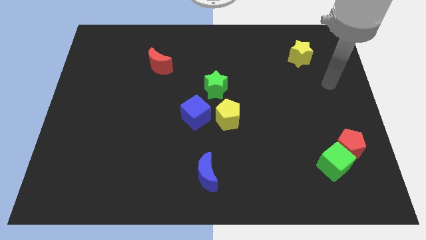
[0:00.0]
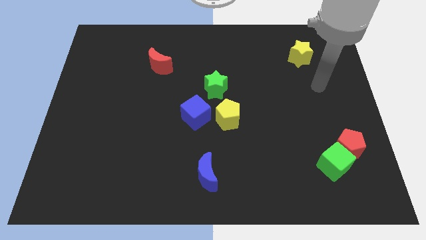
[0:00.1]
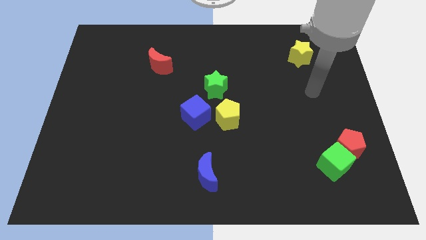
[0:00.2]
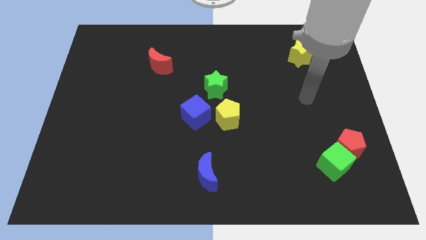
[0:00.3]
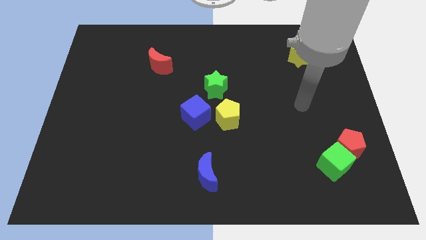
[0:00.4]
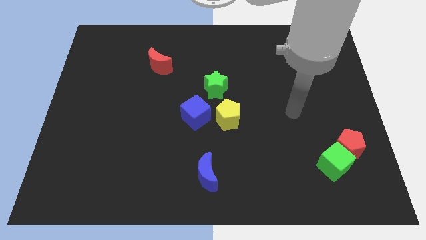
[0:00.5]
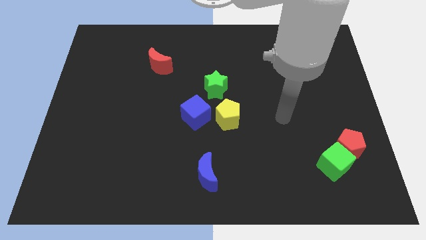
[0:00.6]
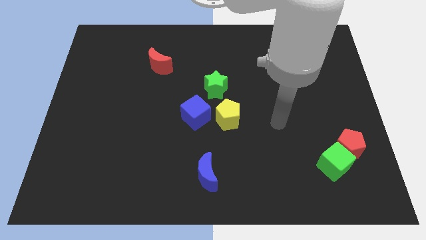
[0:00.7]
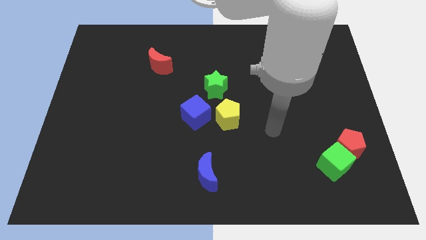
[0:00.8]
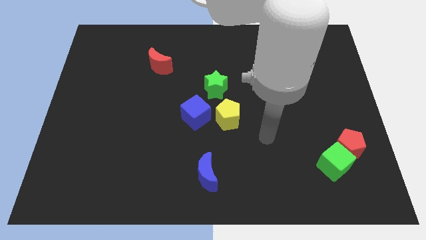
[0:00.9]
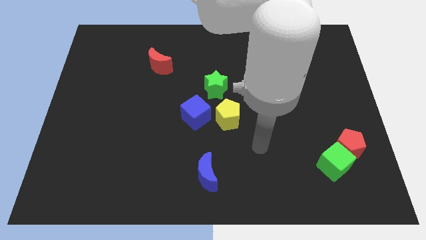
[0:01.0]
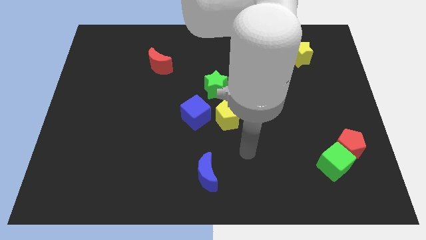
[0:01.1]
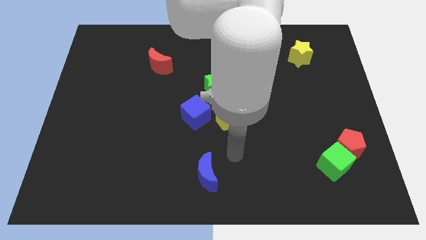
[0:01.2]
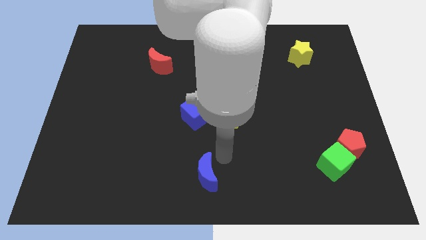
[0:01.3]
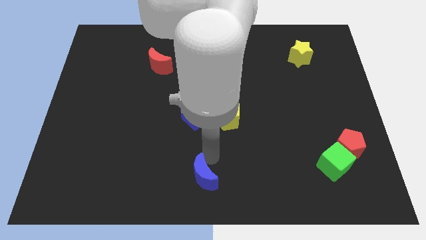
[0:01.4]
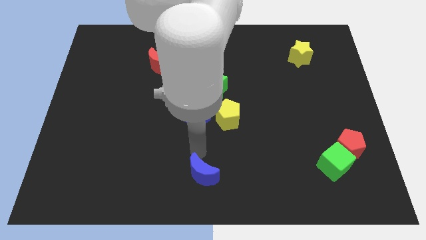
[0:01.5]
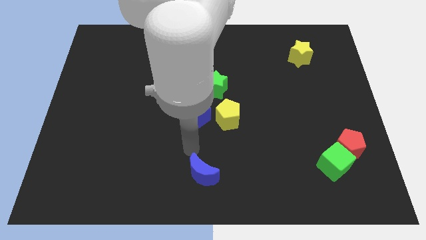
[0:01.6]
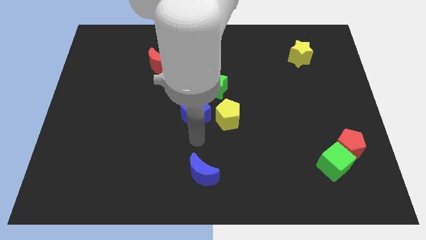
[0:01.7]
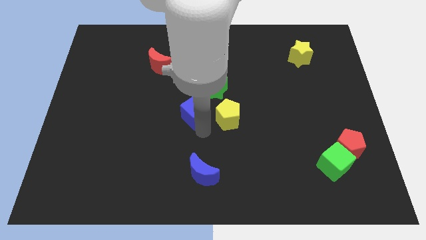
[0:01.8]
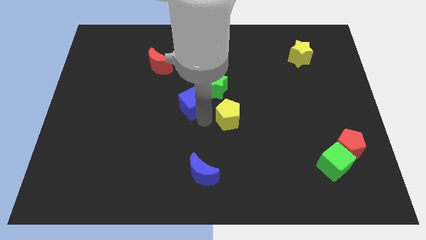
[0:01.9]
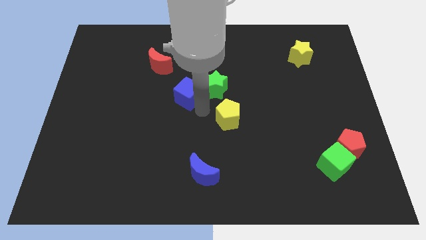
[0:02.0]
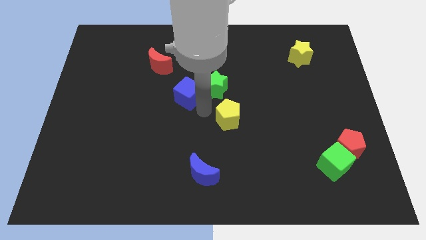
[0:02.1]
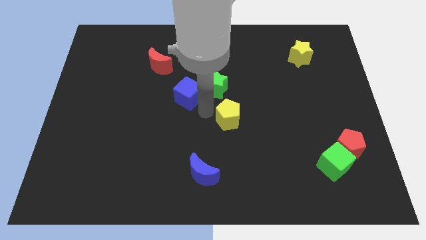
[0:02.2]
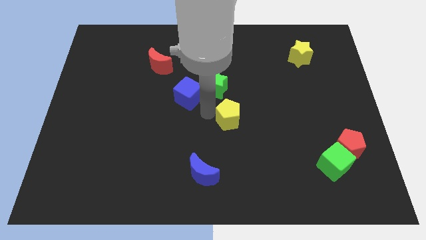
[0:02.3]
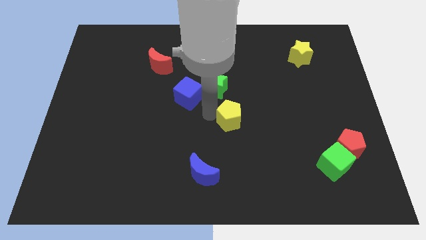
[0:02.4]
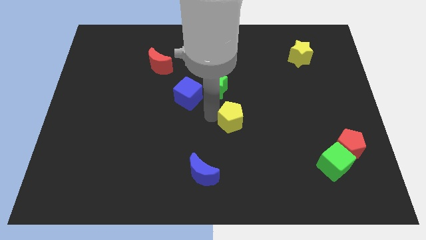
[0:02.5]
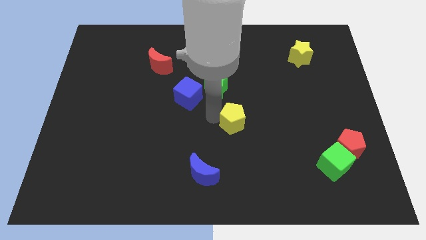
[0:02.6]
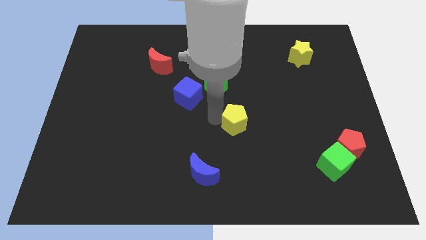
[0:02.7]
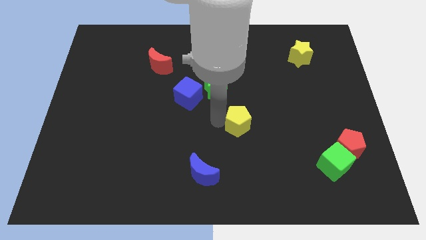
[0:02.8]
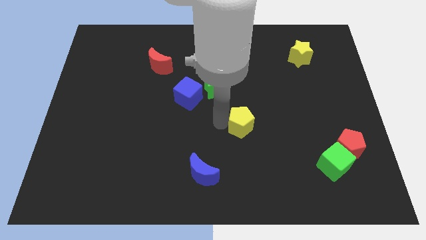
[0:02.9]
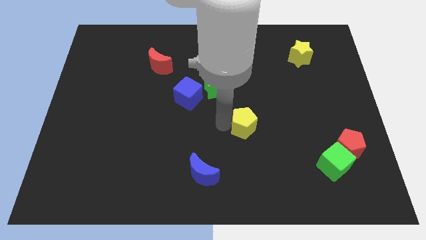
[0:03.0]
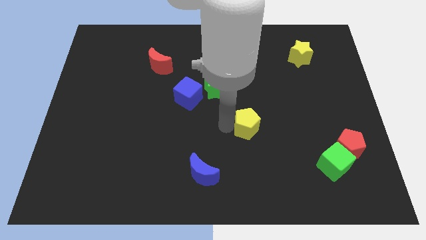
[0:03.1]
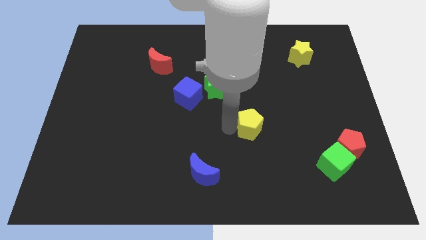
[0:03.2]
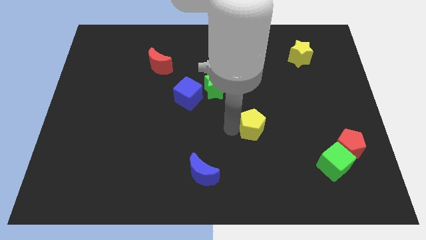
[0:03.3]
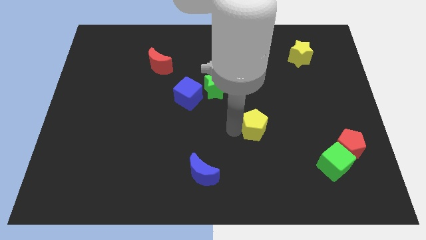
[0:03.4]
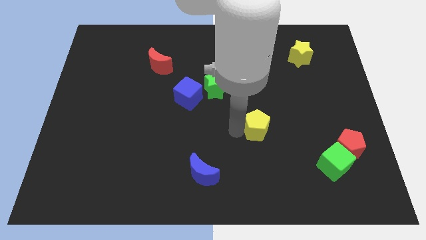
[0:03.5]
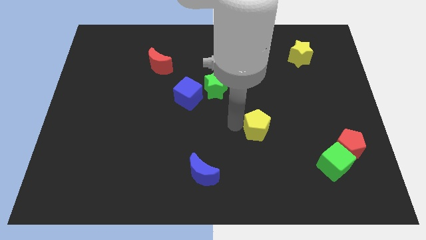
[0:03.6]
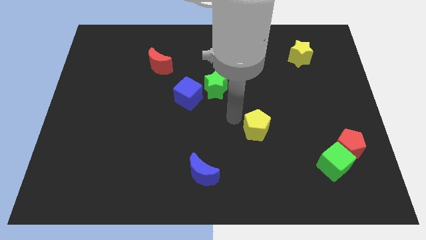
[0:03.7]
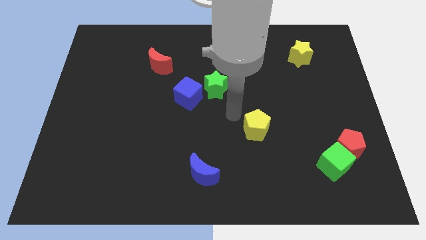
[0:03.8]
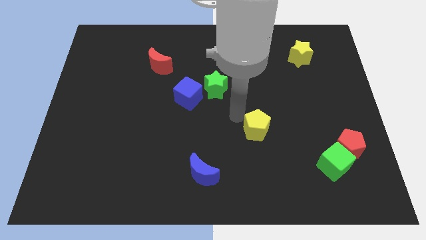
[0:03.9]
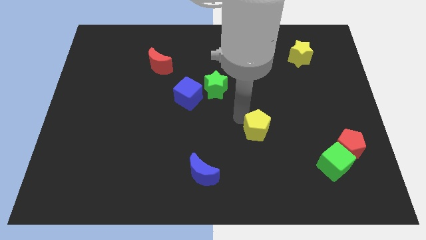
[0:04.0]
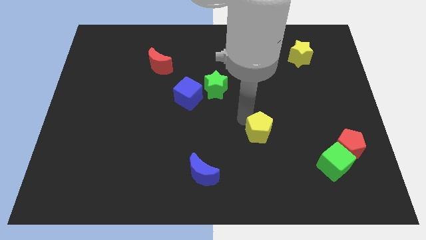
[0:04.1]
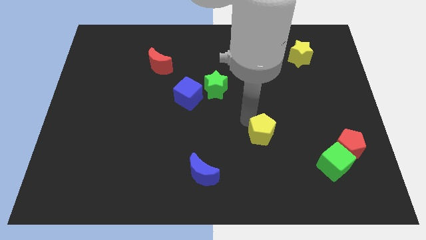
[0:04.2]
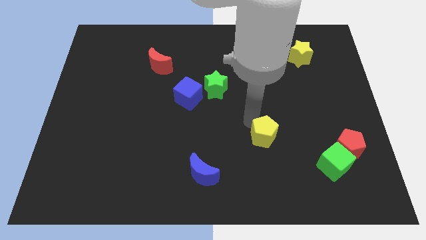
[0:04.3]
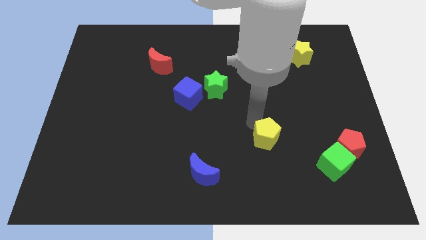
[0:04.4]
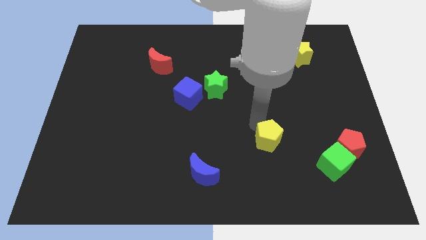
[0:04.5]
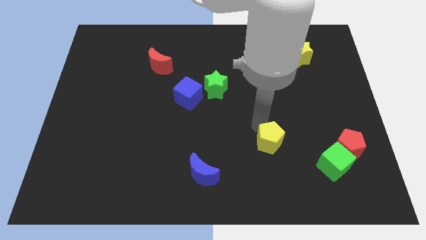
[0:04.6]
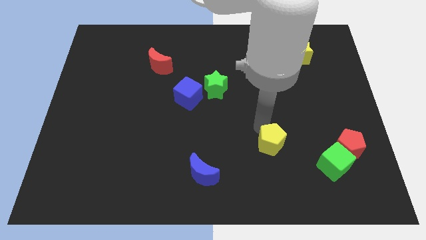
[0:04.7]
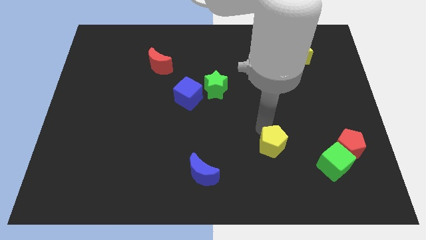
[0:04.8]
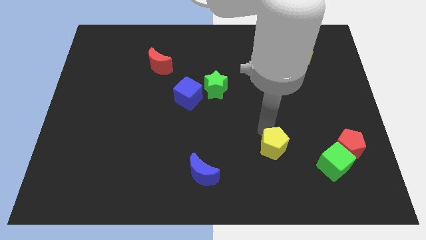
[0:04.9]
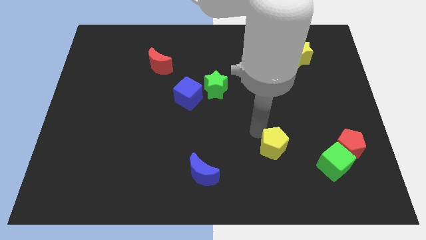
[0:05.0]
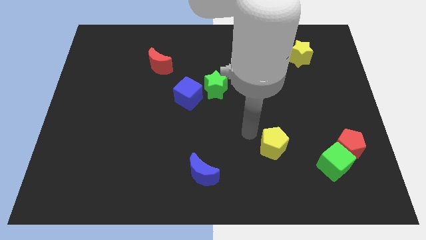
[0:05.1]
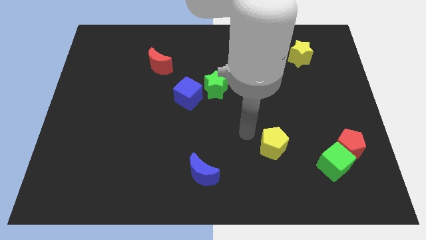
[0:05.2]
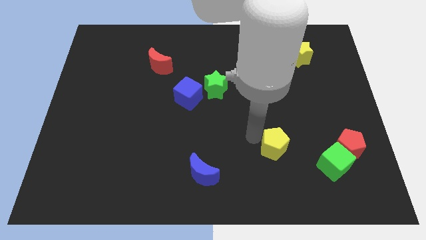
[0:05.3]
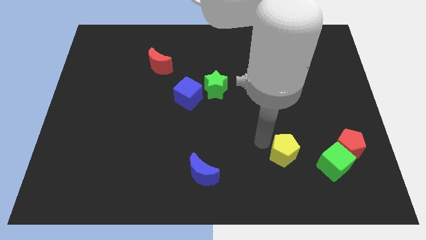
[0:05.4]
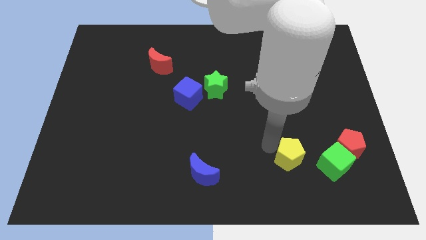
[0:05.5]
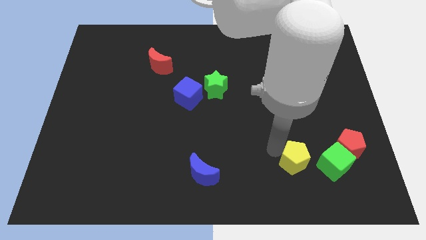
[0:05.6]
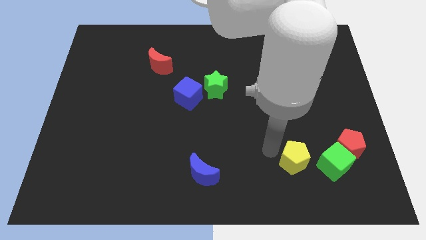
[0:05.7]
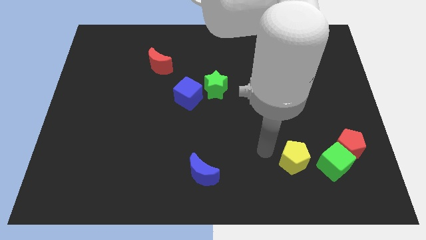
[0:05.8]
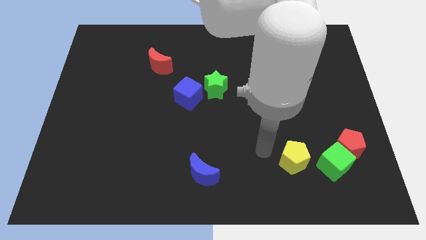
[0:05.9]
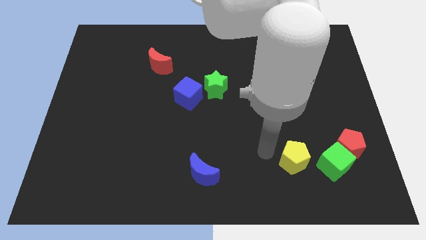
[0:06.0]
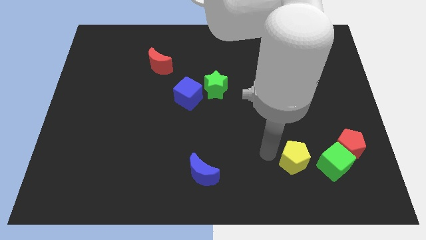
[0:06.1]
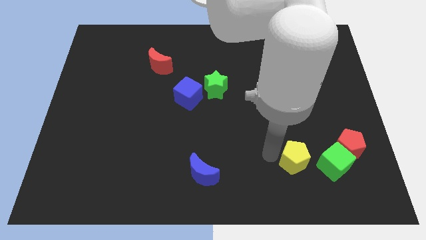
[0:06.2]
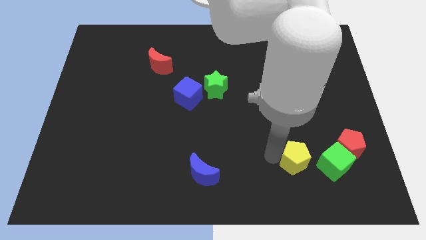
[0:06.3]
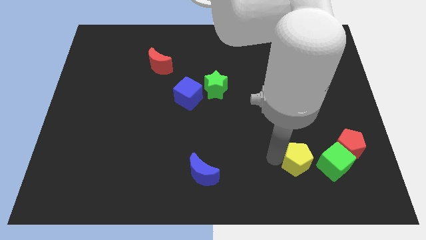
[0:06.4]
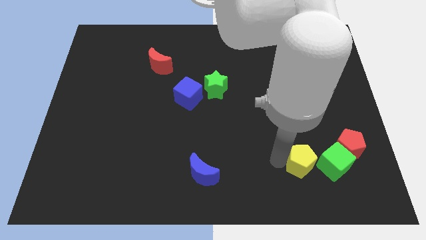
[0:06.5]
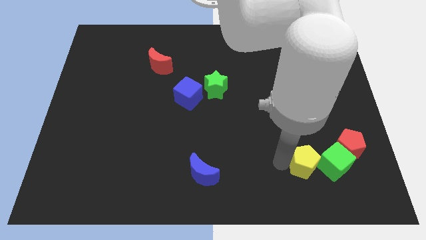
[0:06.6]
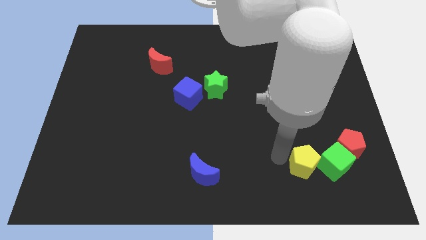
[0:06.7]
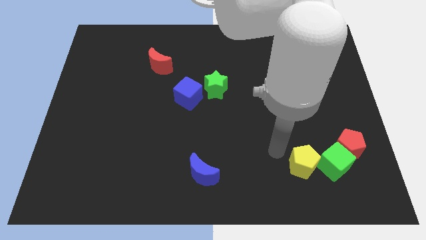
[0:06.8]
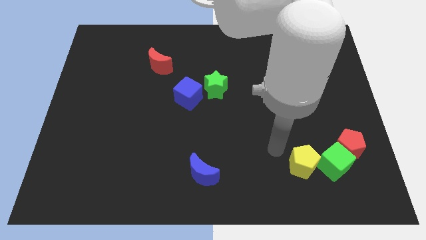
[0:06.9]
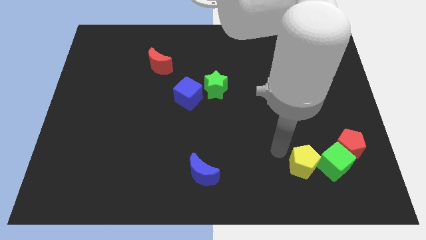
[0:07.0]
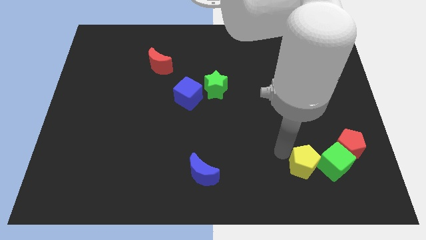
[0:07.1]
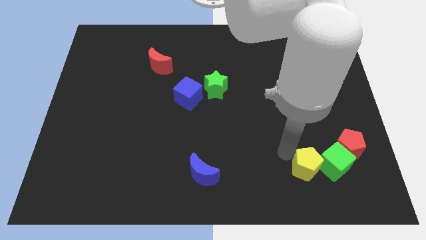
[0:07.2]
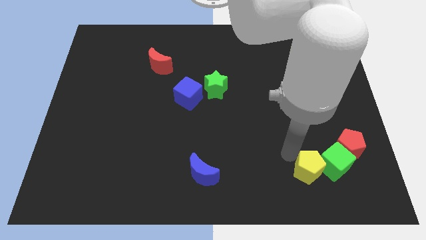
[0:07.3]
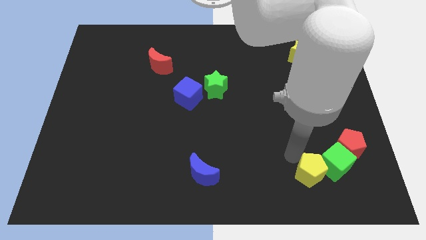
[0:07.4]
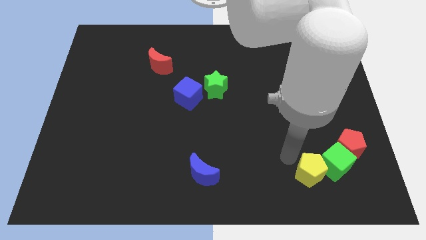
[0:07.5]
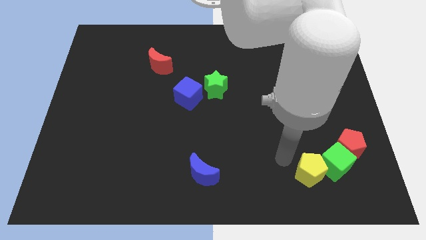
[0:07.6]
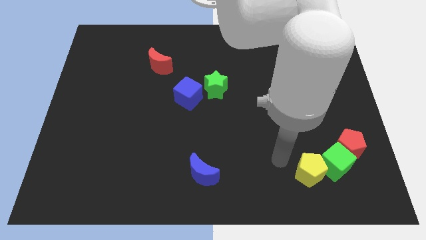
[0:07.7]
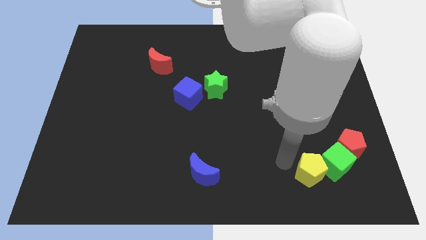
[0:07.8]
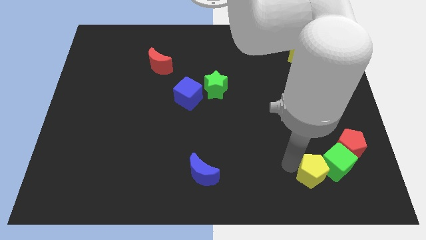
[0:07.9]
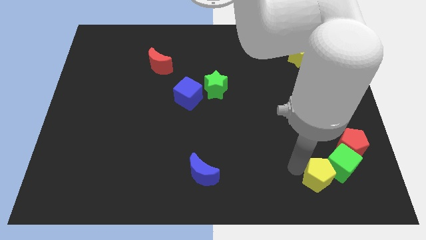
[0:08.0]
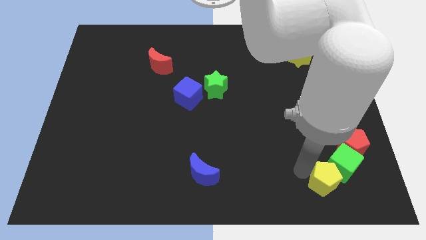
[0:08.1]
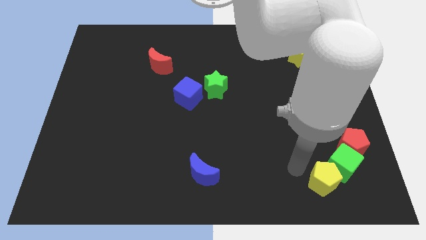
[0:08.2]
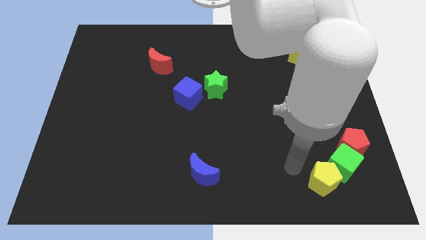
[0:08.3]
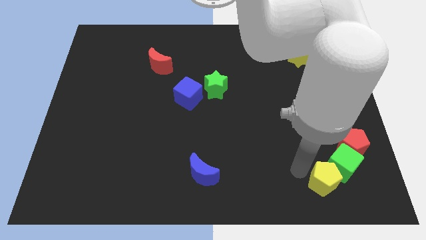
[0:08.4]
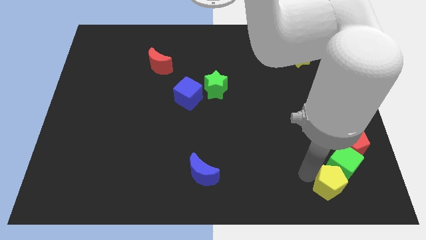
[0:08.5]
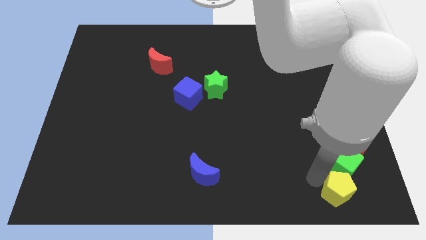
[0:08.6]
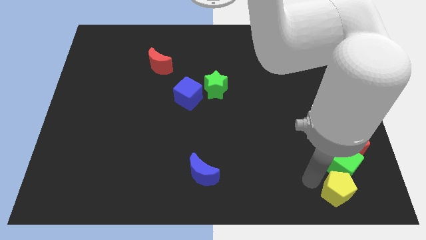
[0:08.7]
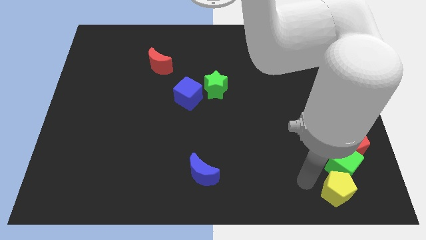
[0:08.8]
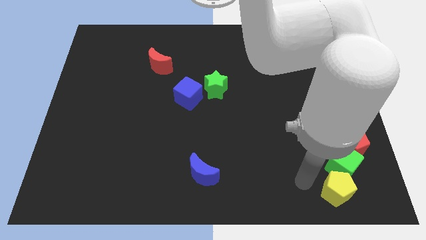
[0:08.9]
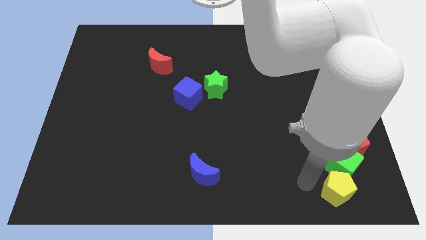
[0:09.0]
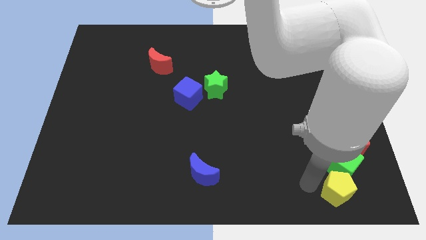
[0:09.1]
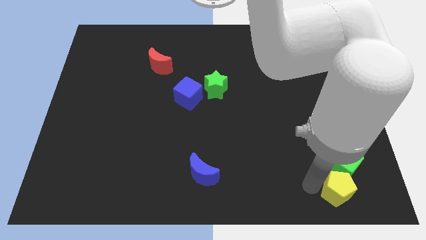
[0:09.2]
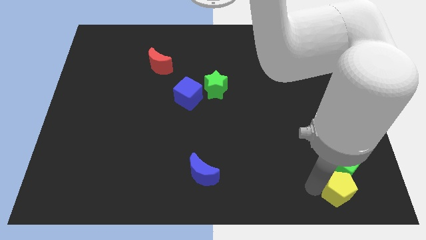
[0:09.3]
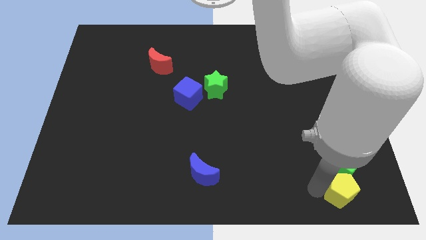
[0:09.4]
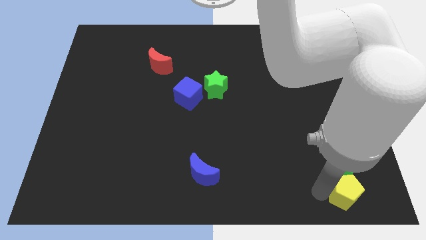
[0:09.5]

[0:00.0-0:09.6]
slide the yellow pentagon to the bottom right corner
